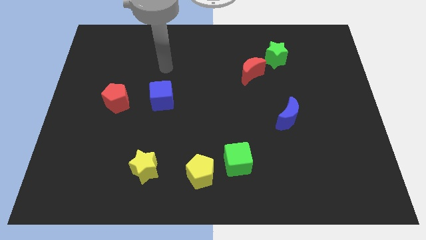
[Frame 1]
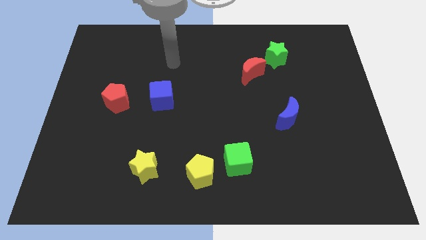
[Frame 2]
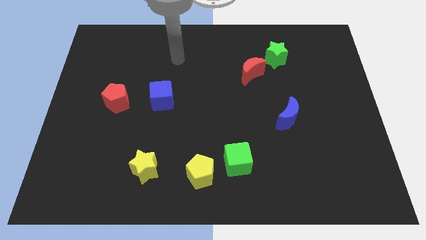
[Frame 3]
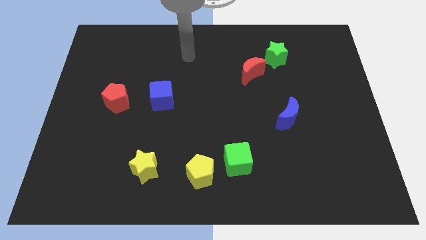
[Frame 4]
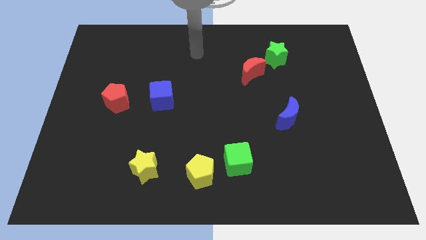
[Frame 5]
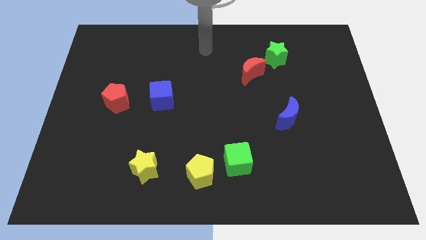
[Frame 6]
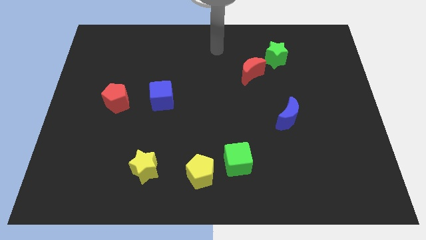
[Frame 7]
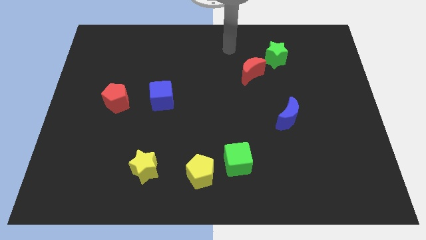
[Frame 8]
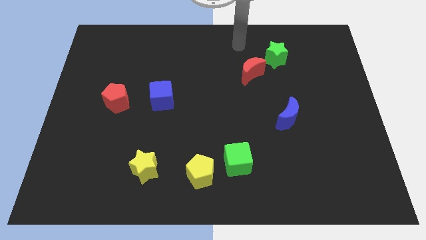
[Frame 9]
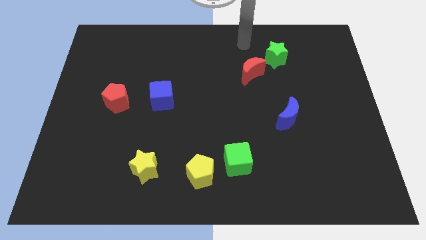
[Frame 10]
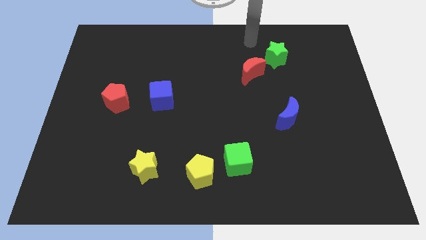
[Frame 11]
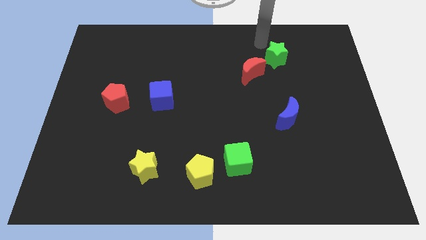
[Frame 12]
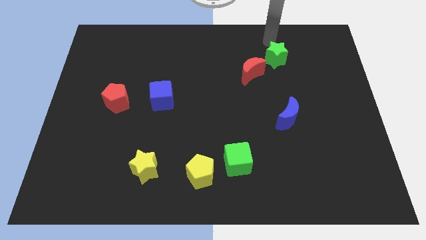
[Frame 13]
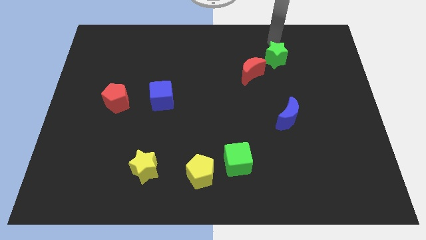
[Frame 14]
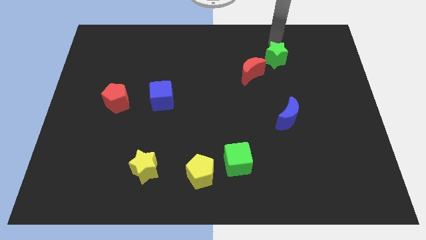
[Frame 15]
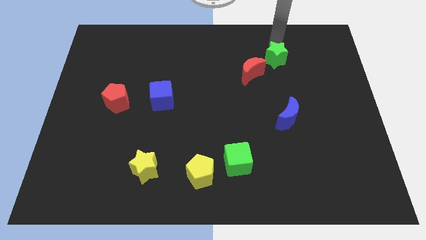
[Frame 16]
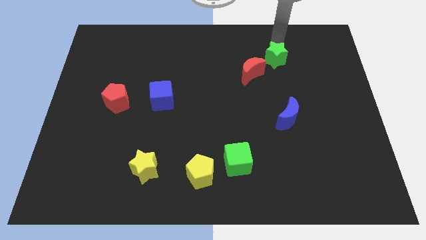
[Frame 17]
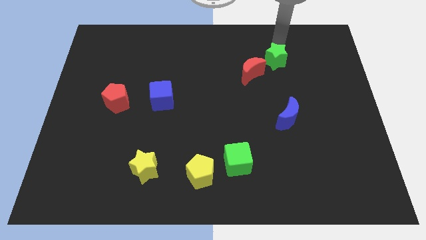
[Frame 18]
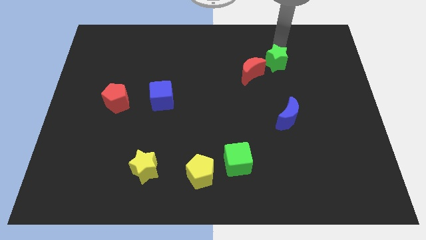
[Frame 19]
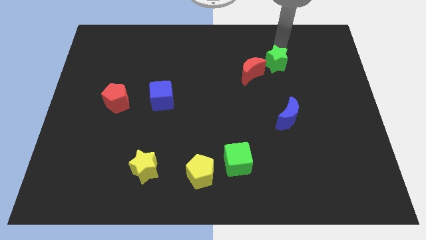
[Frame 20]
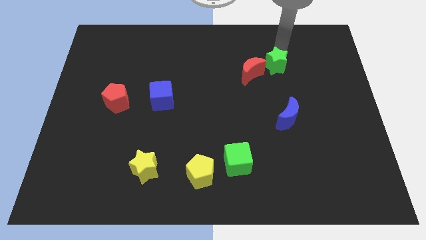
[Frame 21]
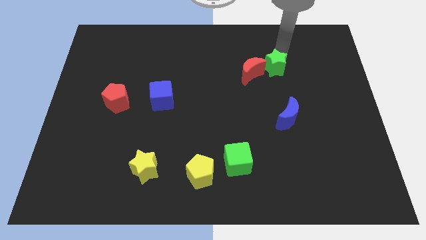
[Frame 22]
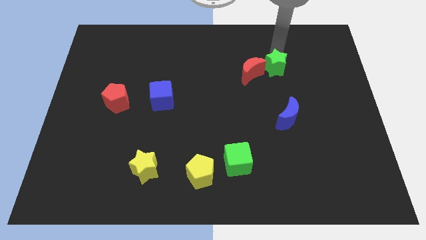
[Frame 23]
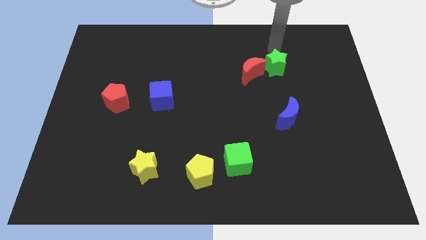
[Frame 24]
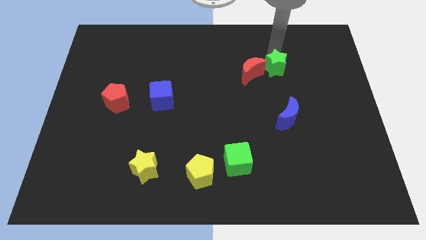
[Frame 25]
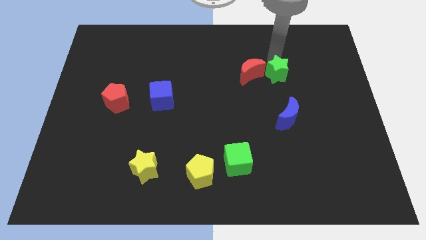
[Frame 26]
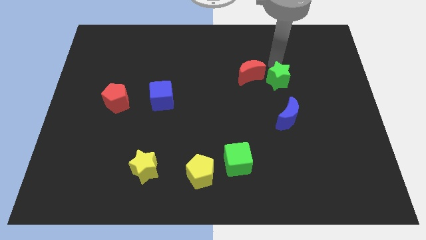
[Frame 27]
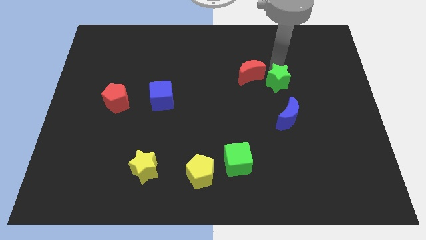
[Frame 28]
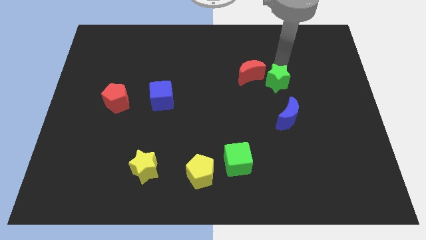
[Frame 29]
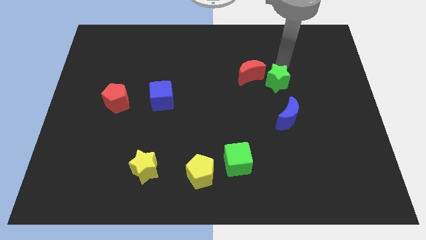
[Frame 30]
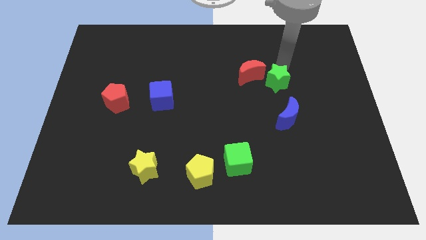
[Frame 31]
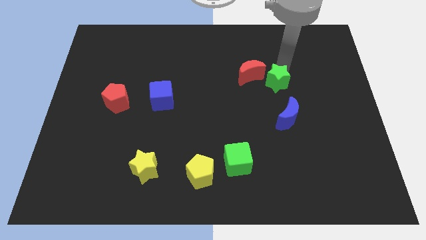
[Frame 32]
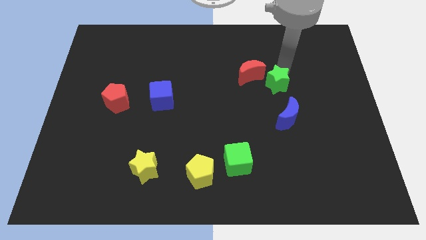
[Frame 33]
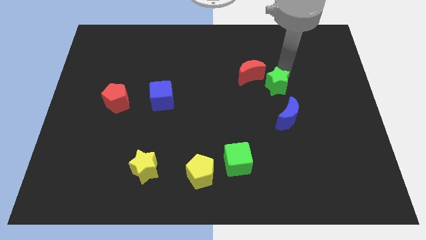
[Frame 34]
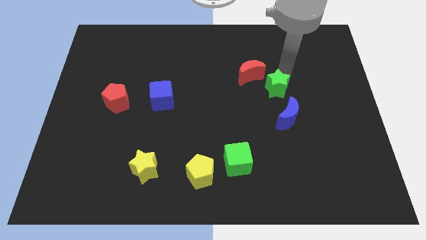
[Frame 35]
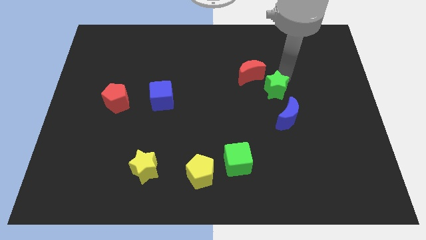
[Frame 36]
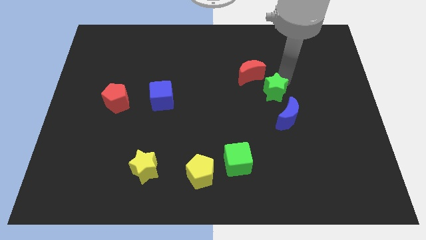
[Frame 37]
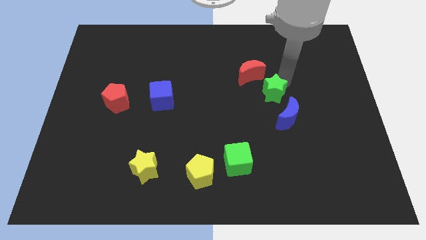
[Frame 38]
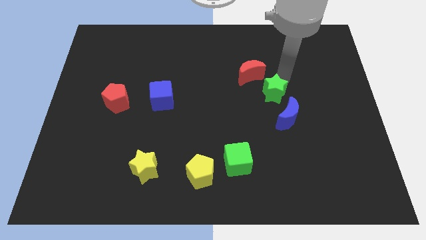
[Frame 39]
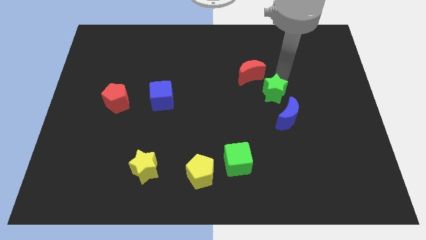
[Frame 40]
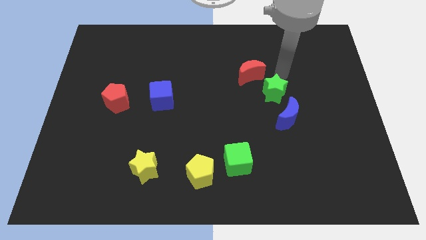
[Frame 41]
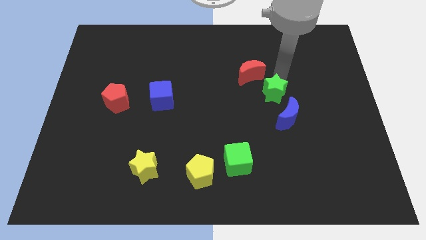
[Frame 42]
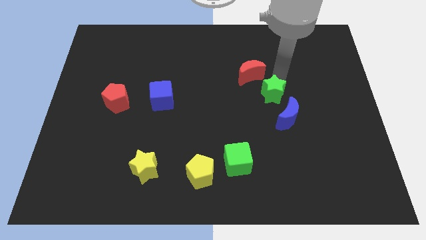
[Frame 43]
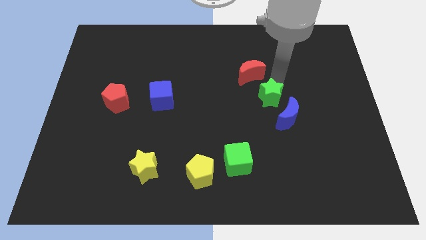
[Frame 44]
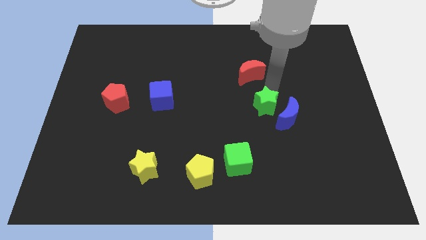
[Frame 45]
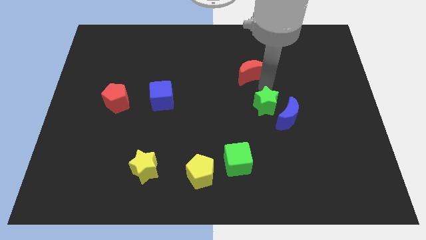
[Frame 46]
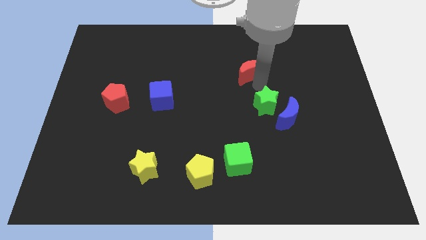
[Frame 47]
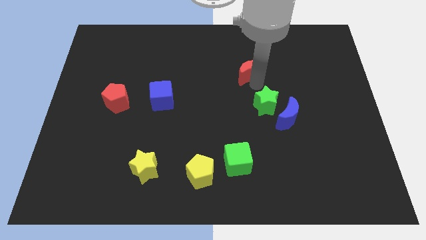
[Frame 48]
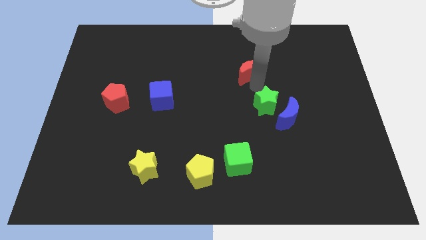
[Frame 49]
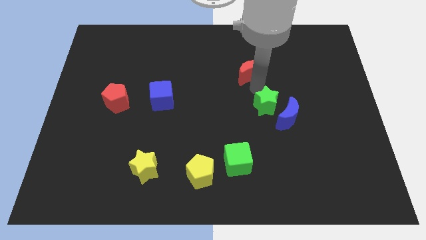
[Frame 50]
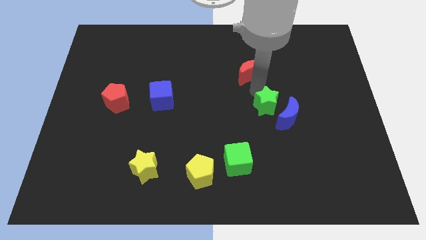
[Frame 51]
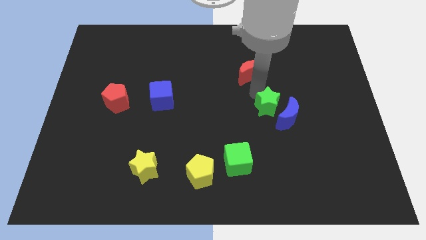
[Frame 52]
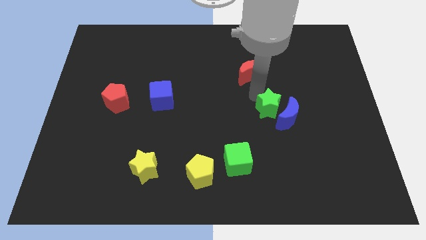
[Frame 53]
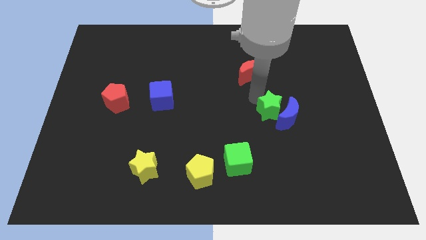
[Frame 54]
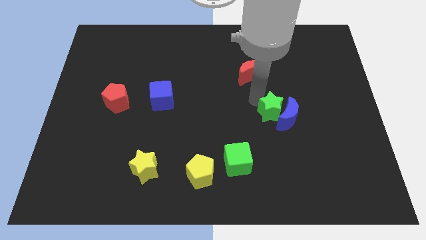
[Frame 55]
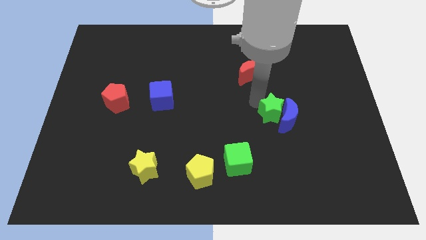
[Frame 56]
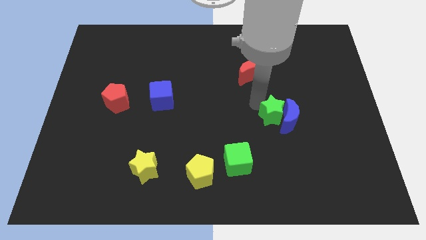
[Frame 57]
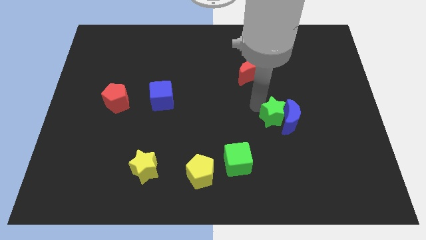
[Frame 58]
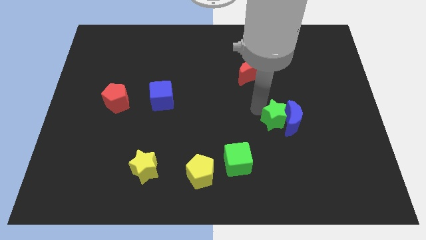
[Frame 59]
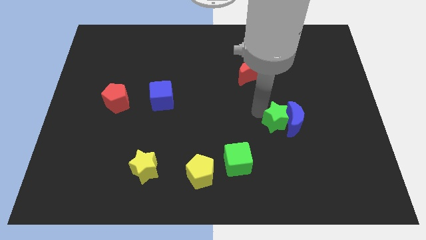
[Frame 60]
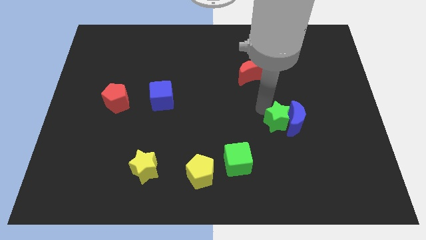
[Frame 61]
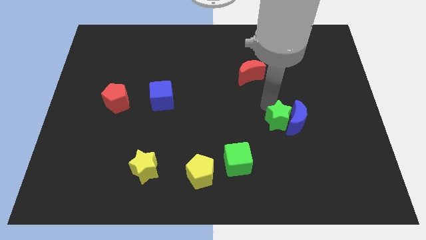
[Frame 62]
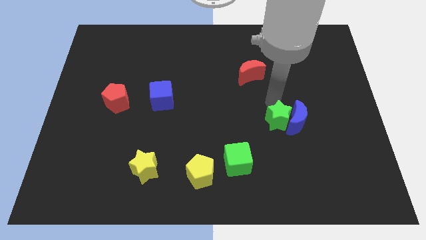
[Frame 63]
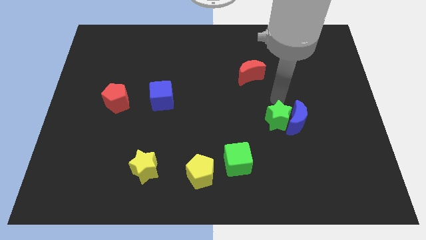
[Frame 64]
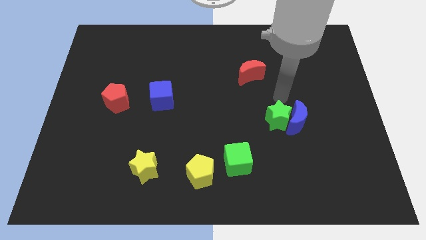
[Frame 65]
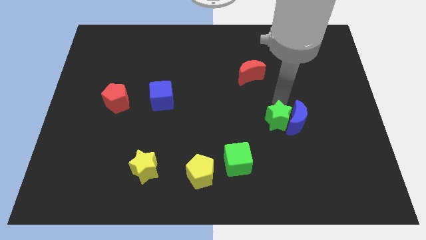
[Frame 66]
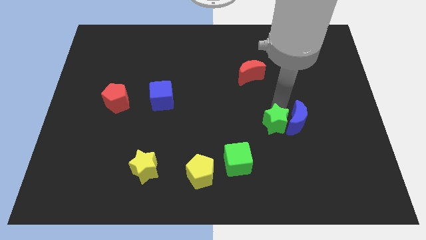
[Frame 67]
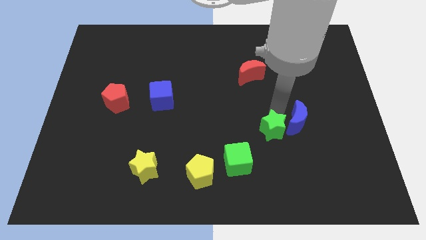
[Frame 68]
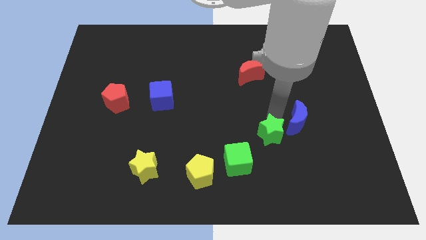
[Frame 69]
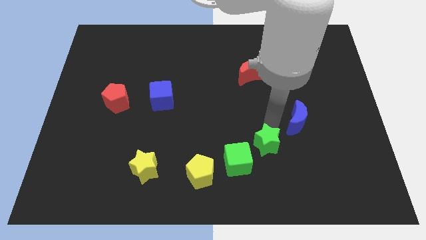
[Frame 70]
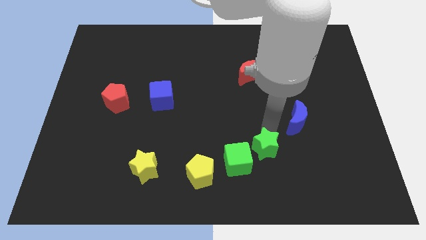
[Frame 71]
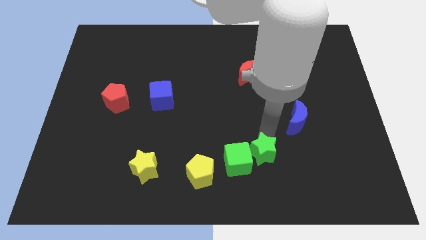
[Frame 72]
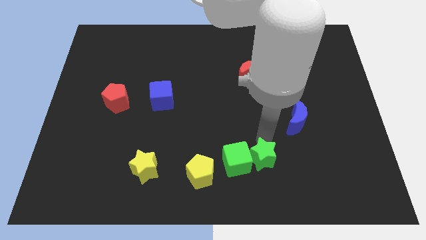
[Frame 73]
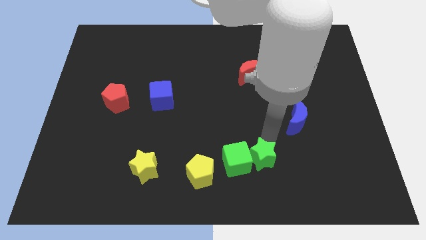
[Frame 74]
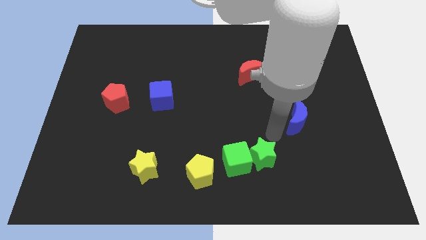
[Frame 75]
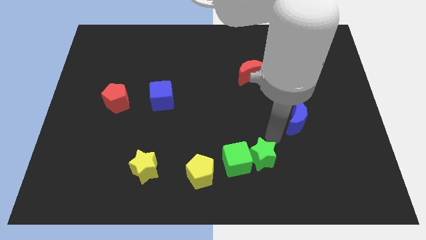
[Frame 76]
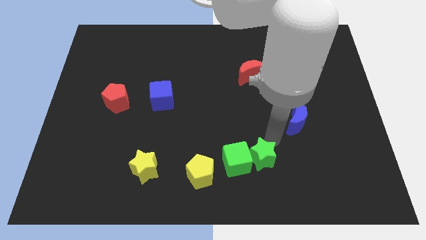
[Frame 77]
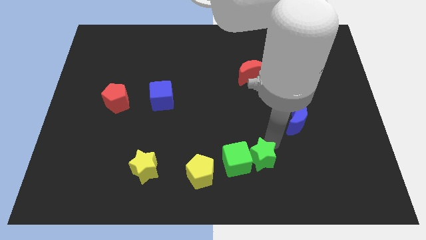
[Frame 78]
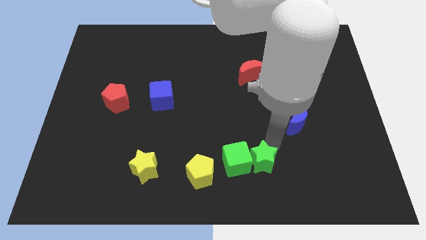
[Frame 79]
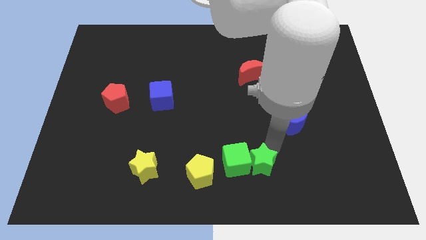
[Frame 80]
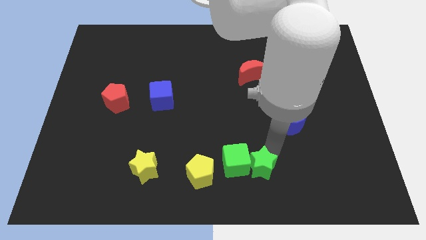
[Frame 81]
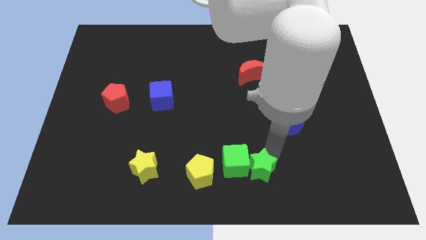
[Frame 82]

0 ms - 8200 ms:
slide the green star to the bottom side
